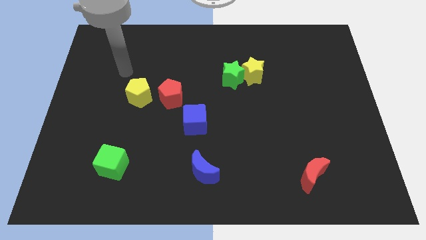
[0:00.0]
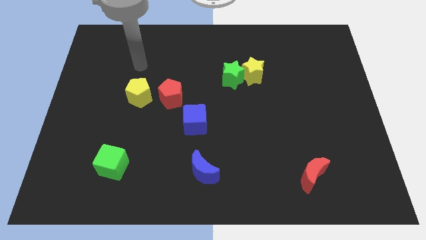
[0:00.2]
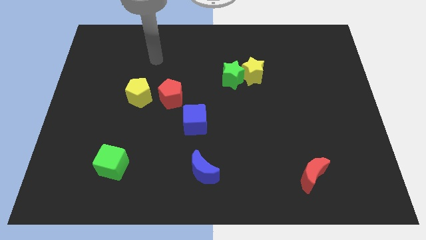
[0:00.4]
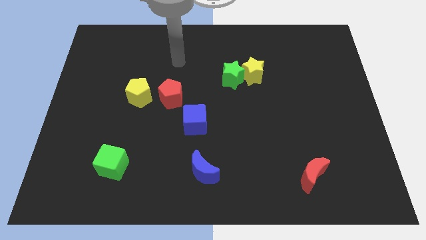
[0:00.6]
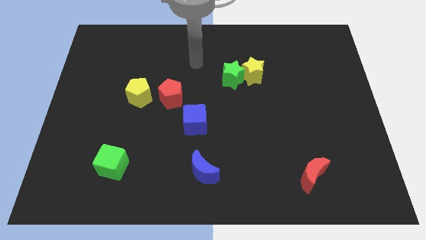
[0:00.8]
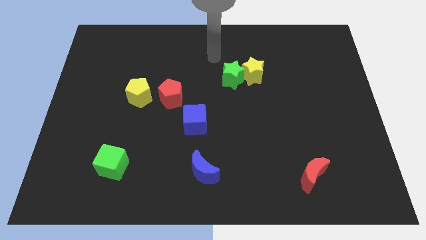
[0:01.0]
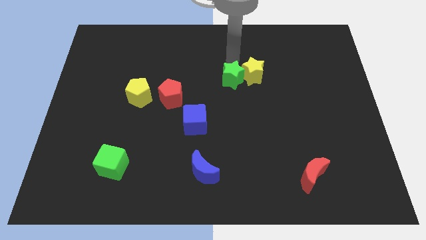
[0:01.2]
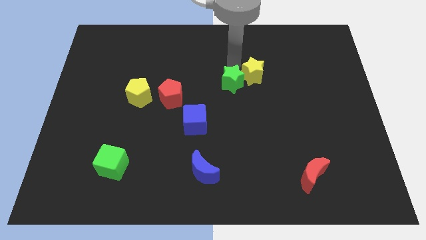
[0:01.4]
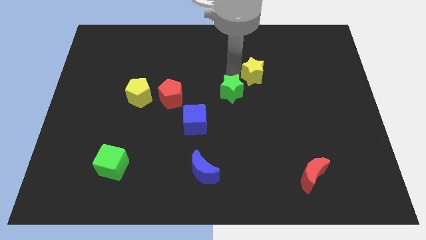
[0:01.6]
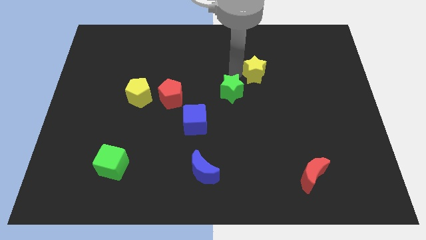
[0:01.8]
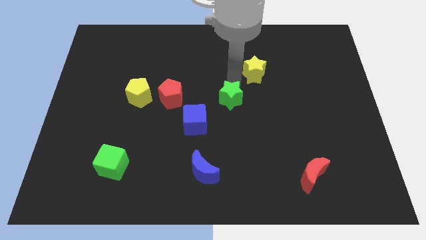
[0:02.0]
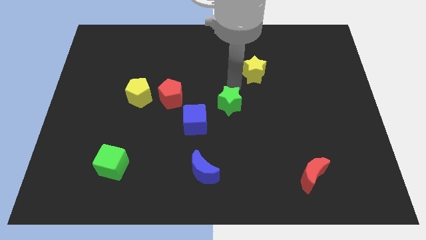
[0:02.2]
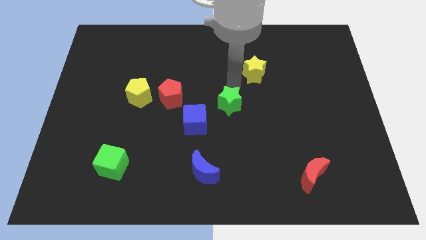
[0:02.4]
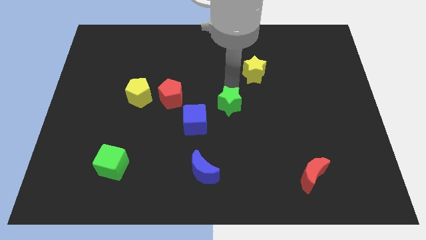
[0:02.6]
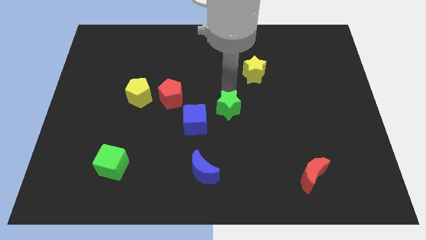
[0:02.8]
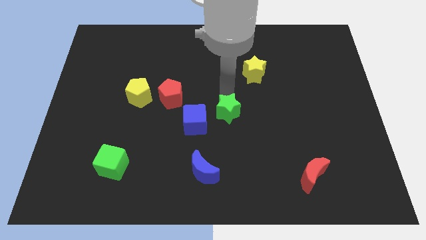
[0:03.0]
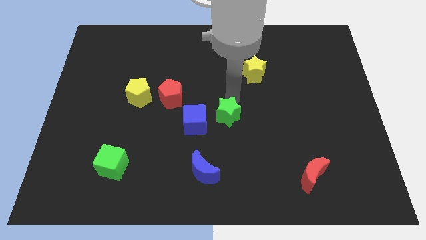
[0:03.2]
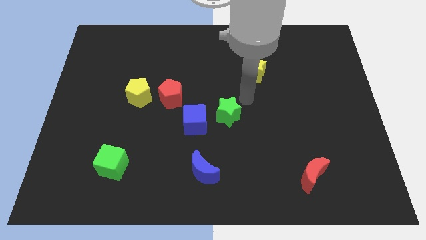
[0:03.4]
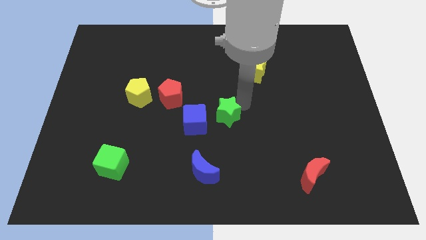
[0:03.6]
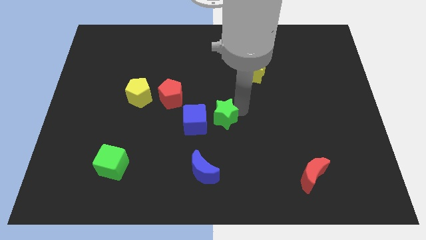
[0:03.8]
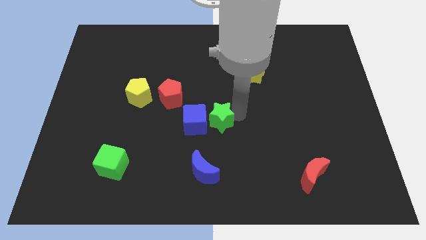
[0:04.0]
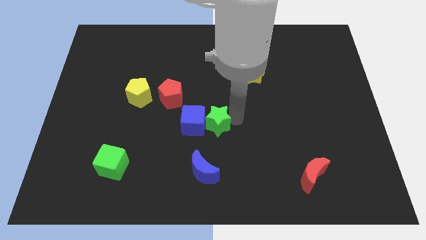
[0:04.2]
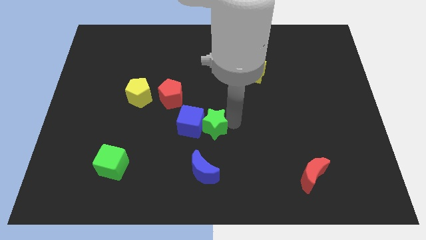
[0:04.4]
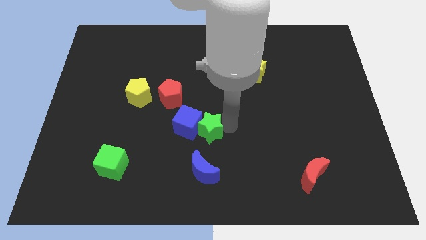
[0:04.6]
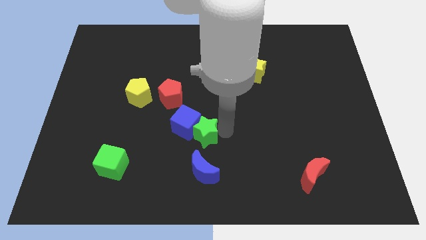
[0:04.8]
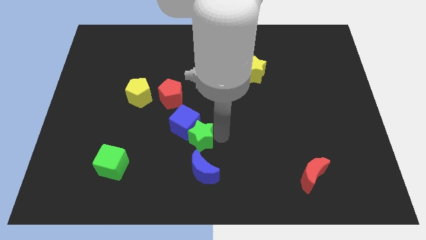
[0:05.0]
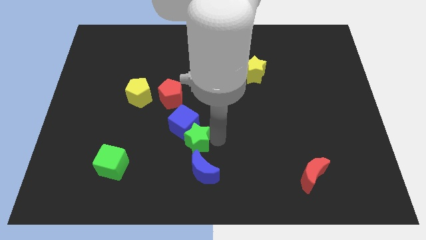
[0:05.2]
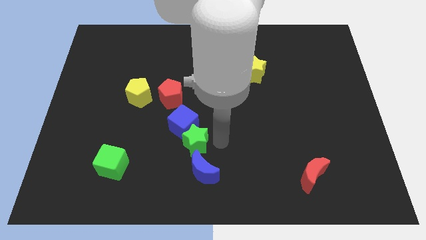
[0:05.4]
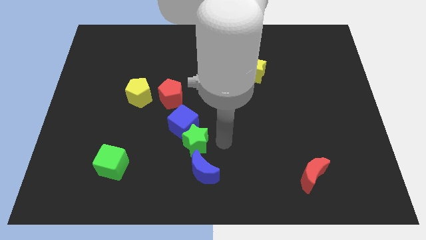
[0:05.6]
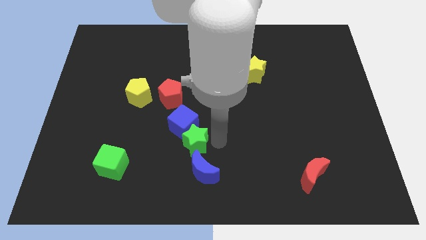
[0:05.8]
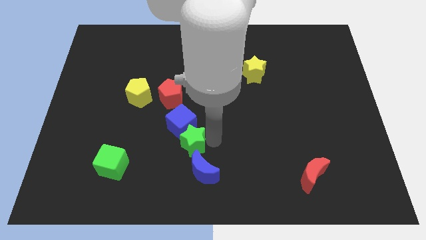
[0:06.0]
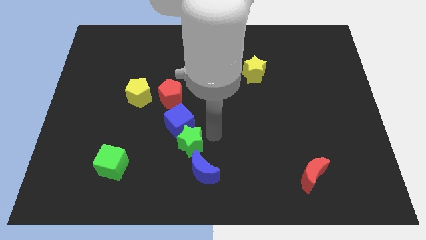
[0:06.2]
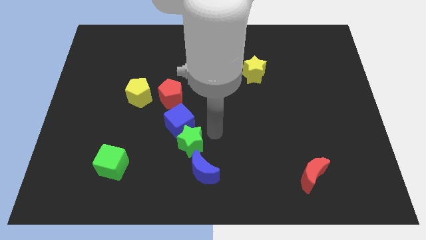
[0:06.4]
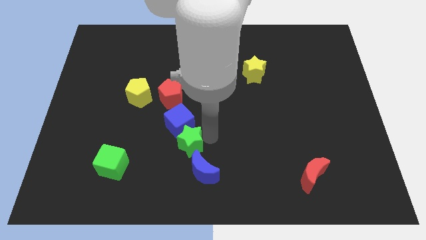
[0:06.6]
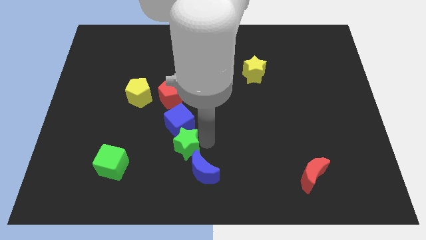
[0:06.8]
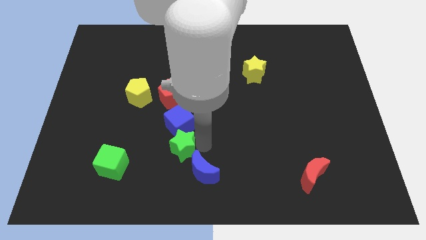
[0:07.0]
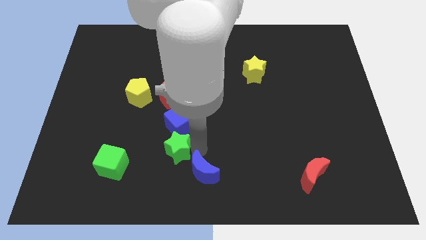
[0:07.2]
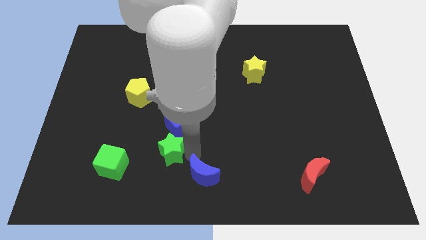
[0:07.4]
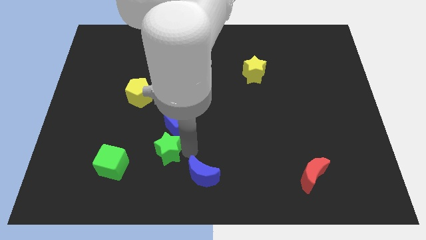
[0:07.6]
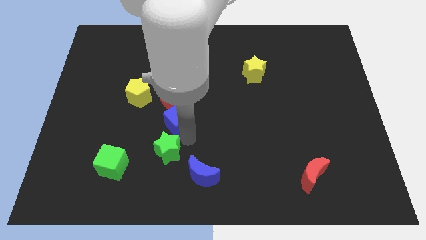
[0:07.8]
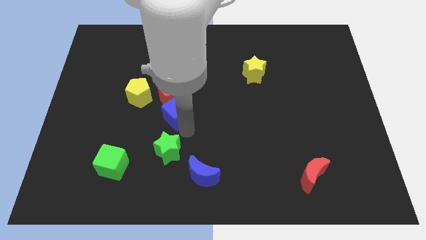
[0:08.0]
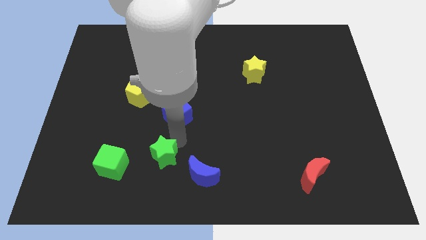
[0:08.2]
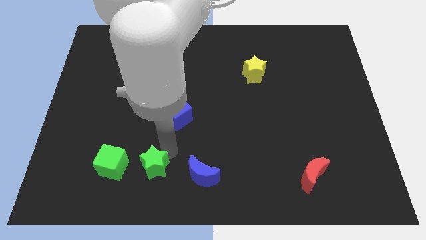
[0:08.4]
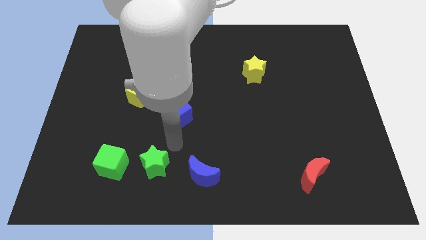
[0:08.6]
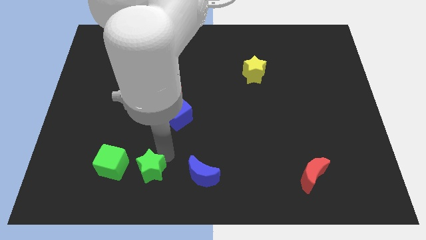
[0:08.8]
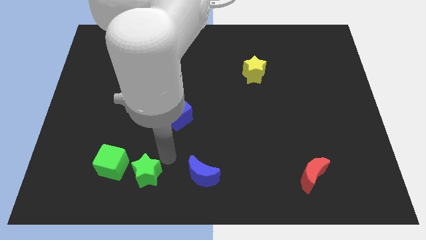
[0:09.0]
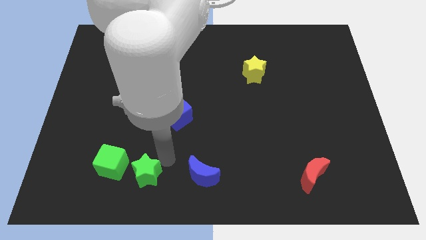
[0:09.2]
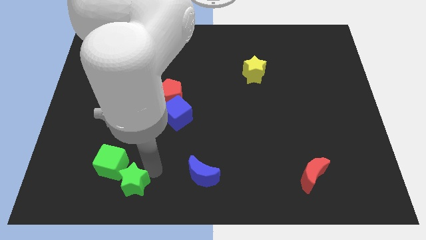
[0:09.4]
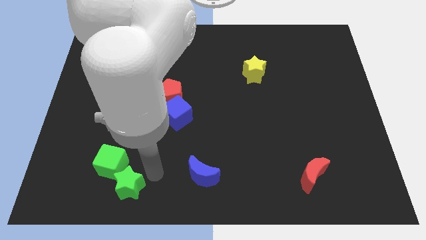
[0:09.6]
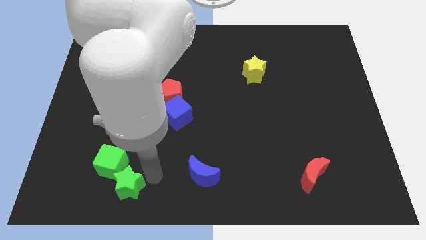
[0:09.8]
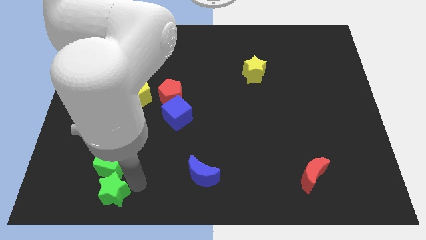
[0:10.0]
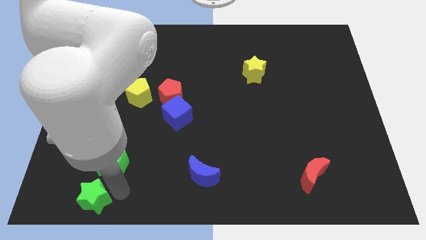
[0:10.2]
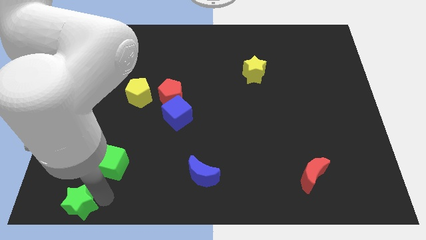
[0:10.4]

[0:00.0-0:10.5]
put the green star to the lower left corner

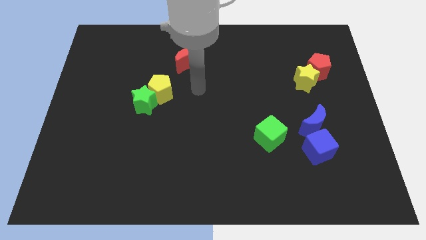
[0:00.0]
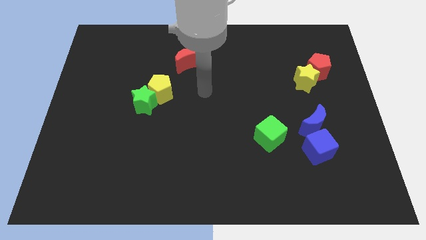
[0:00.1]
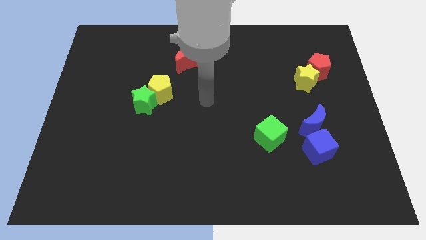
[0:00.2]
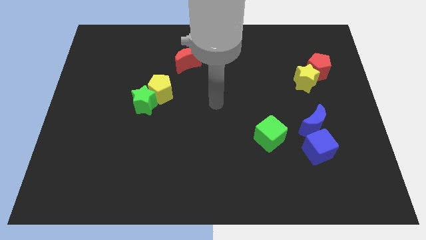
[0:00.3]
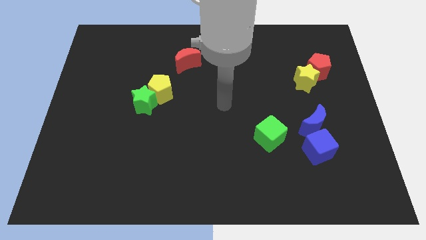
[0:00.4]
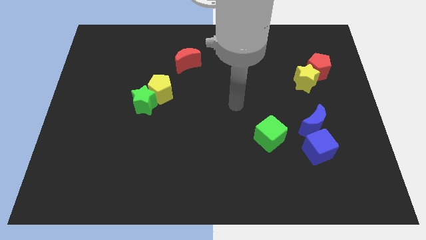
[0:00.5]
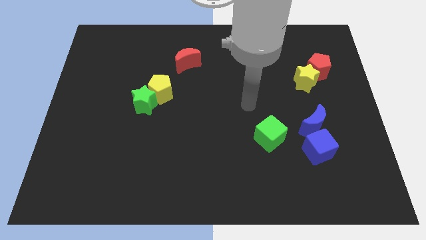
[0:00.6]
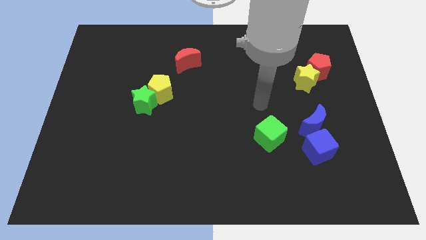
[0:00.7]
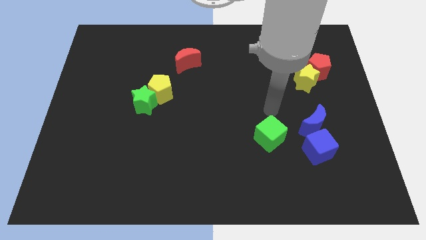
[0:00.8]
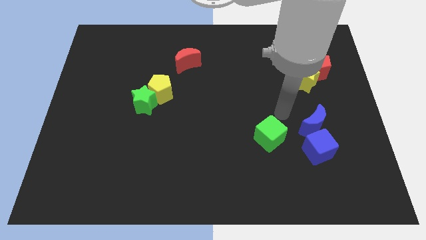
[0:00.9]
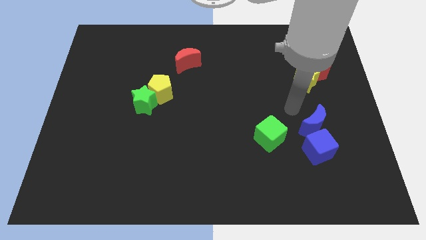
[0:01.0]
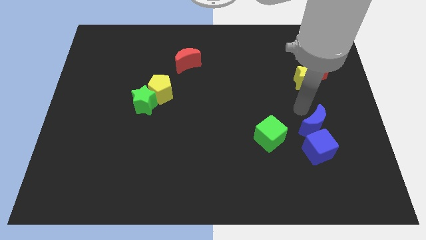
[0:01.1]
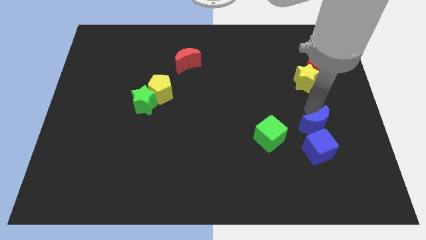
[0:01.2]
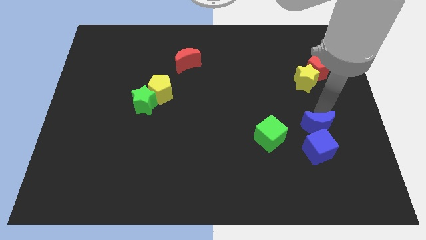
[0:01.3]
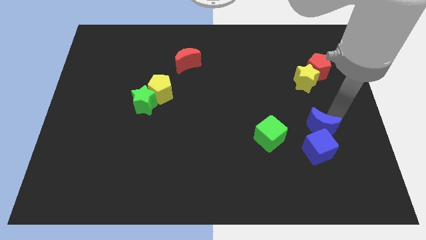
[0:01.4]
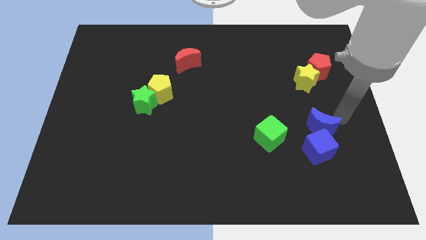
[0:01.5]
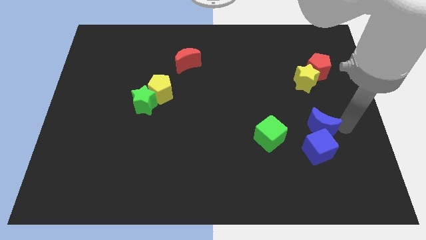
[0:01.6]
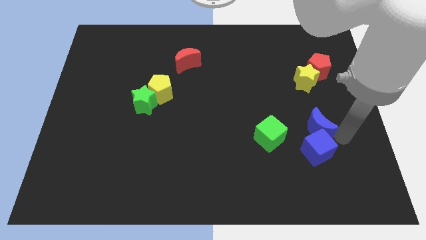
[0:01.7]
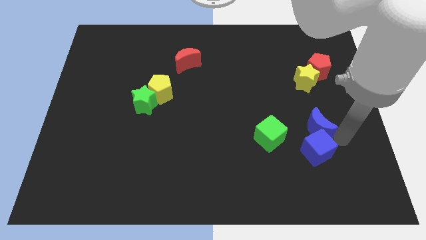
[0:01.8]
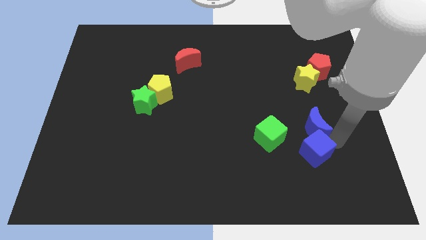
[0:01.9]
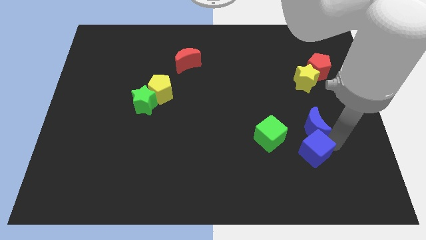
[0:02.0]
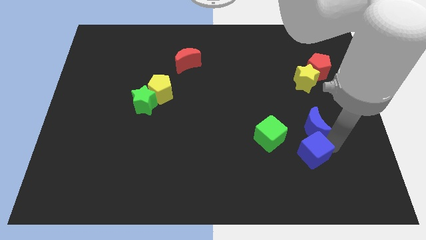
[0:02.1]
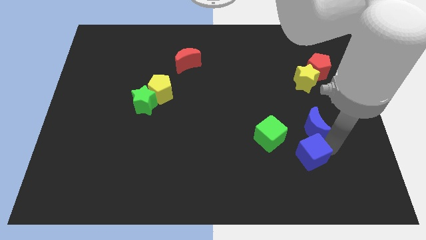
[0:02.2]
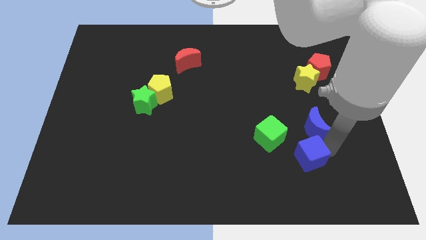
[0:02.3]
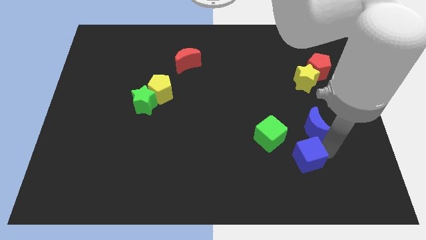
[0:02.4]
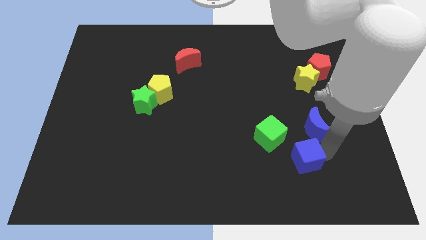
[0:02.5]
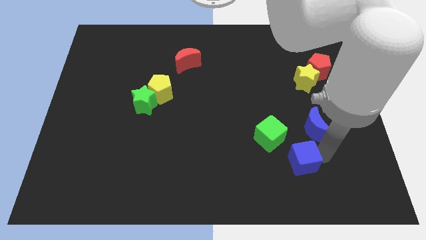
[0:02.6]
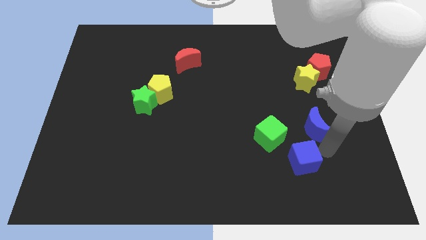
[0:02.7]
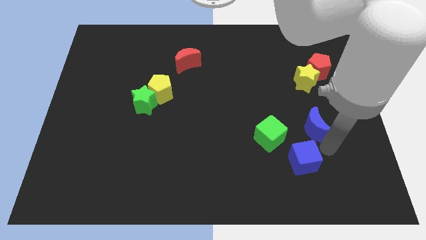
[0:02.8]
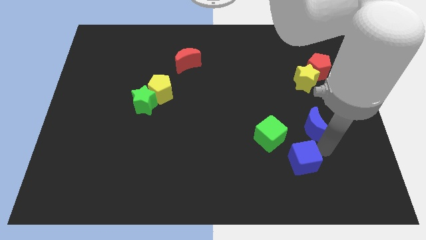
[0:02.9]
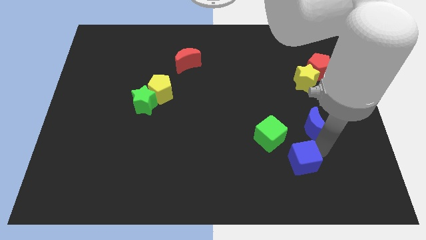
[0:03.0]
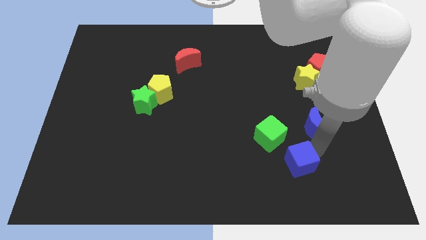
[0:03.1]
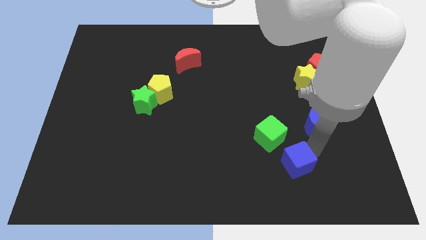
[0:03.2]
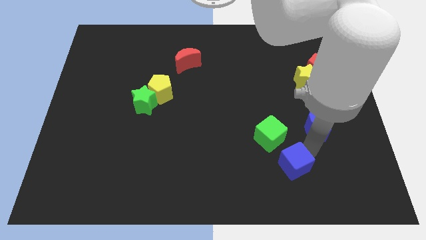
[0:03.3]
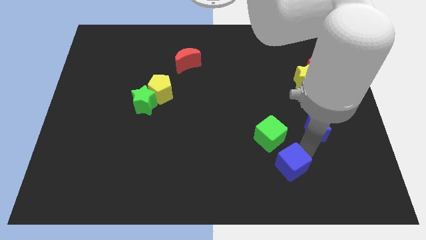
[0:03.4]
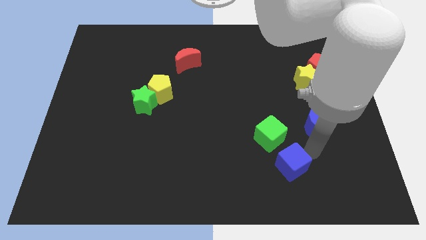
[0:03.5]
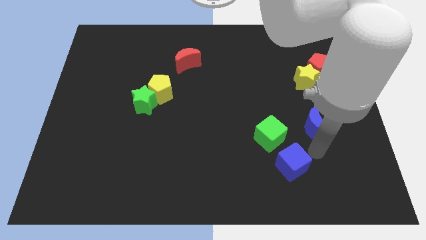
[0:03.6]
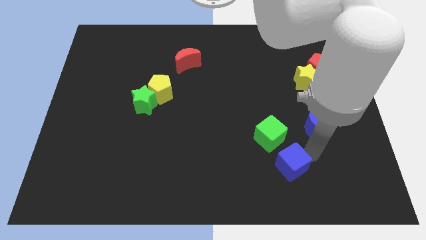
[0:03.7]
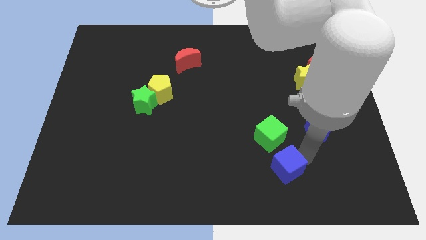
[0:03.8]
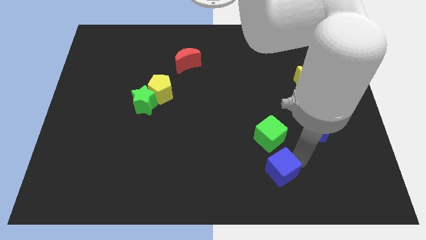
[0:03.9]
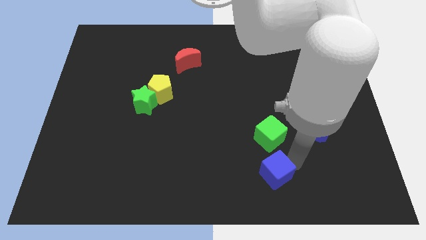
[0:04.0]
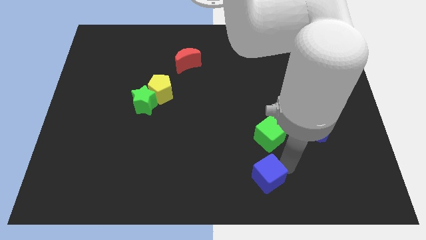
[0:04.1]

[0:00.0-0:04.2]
push the blue cube to the bottom
